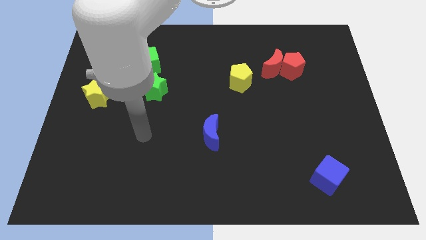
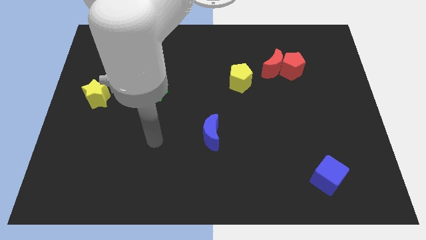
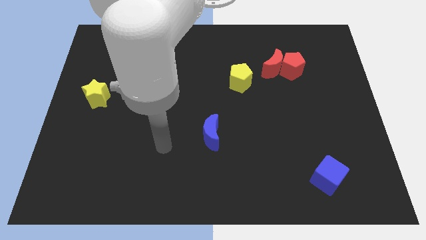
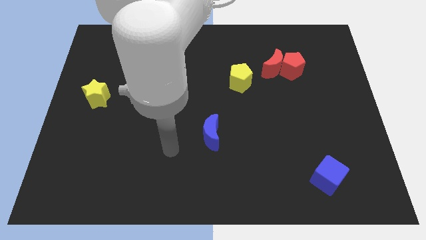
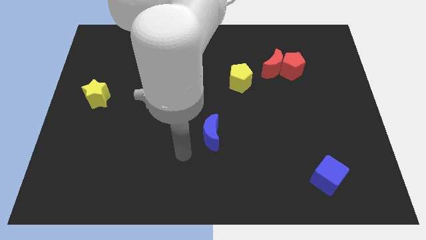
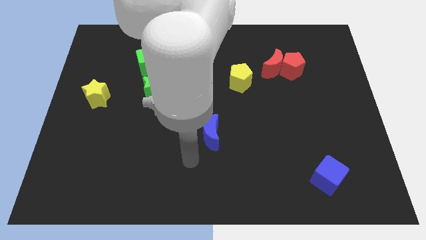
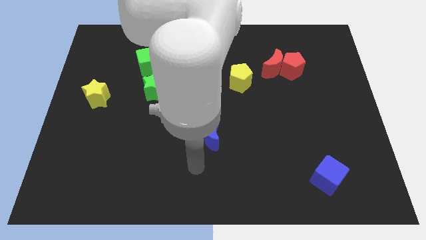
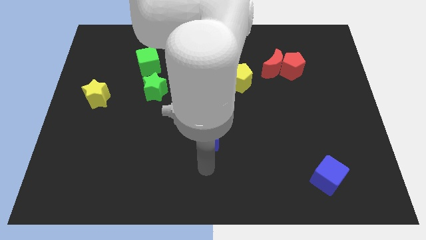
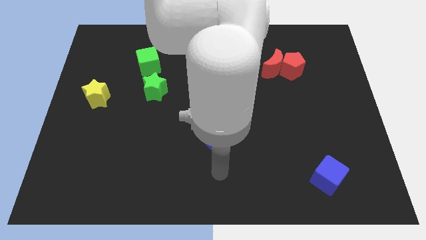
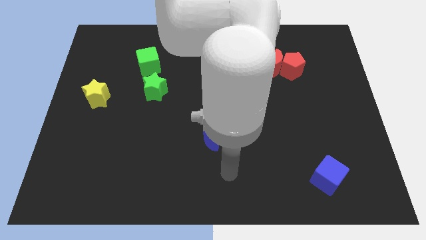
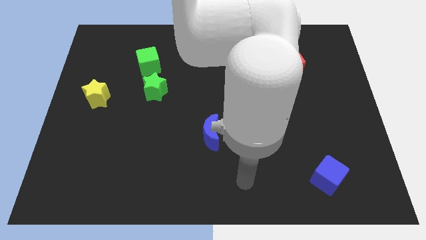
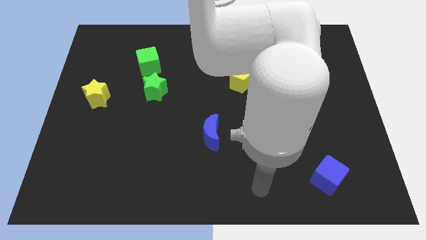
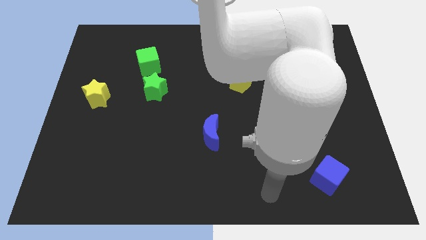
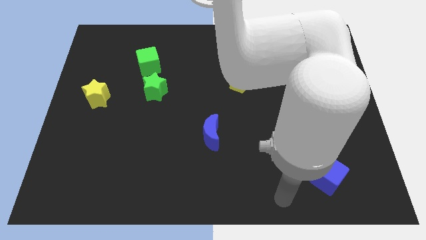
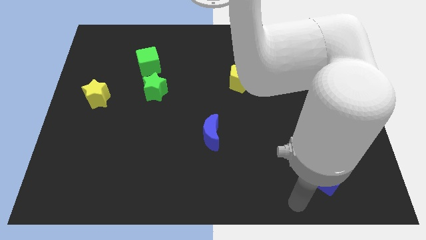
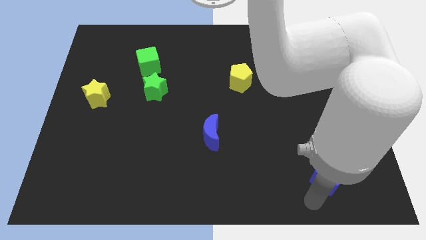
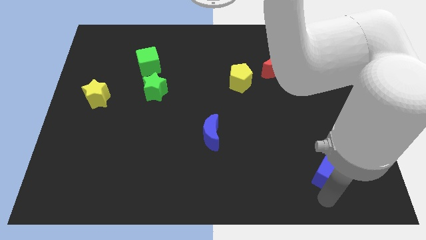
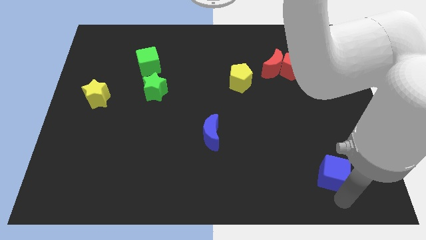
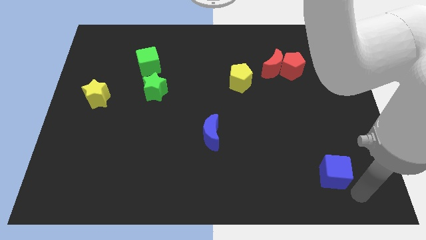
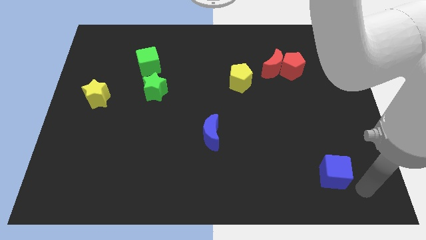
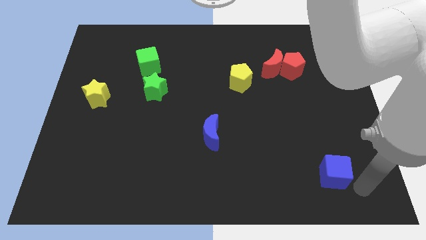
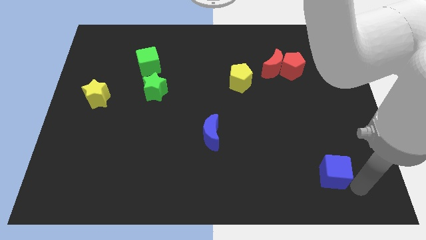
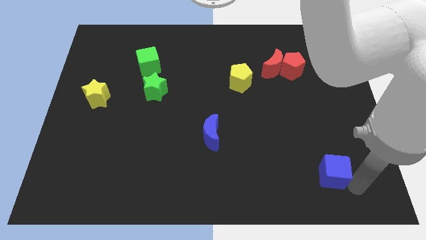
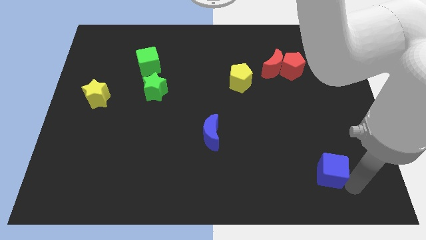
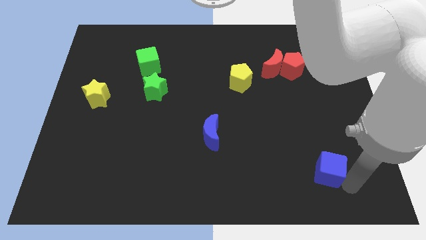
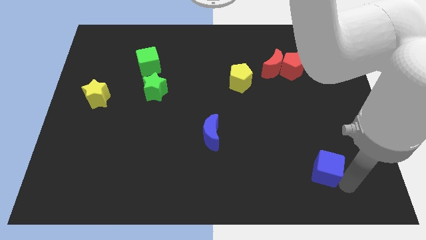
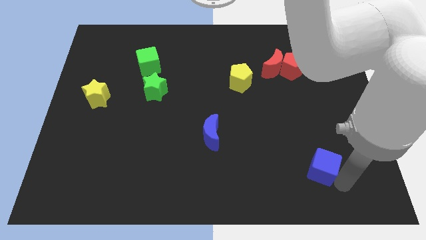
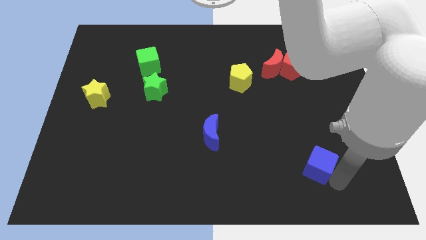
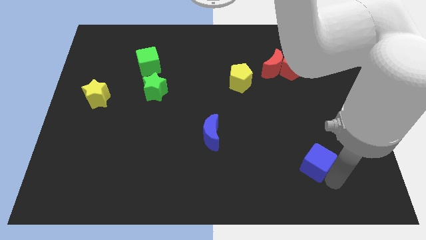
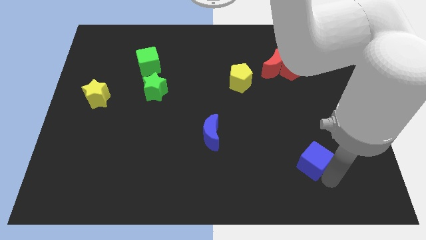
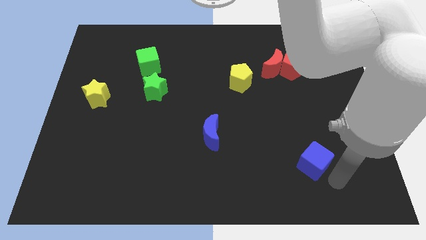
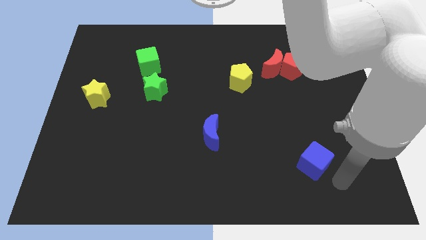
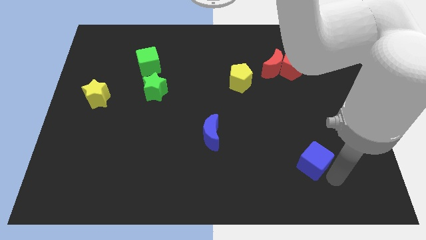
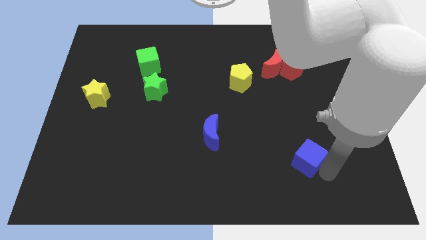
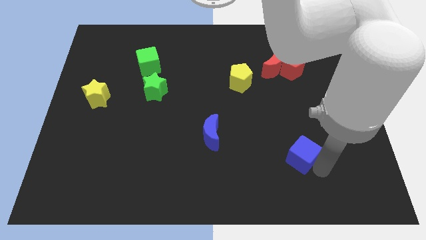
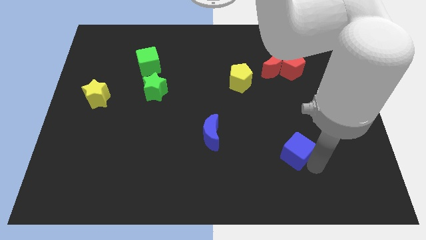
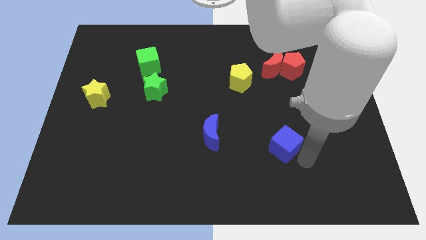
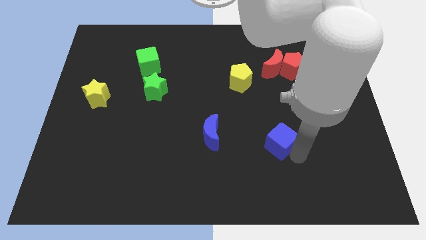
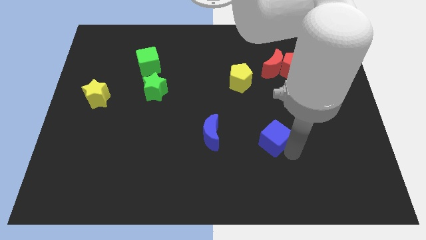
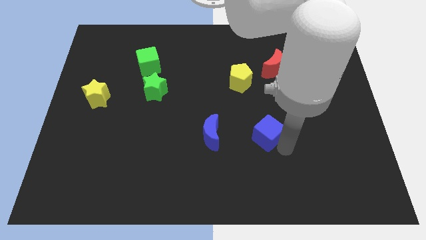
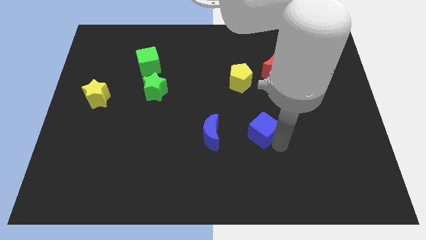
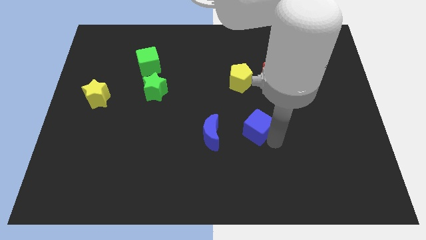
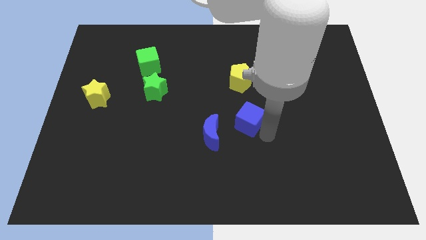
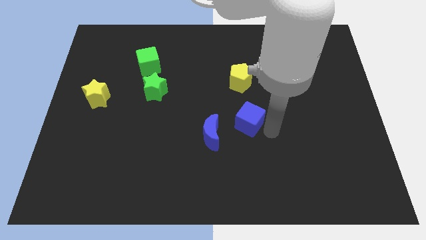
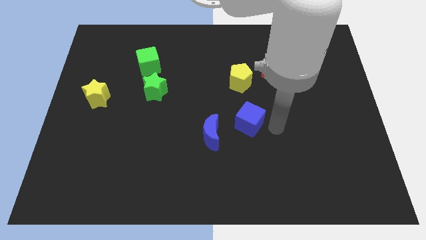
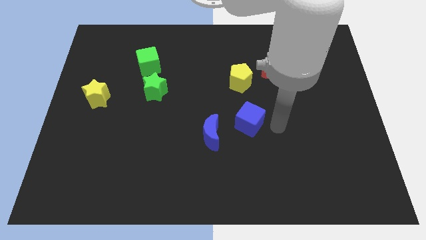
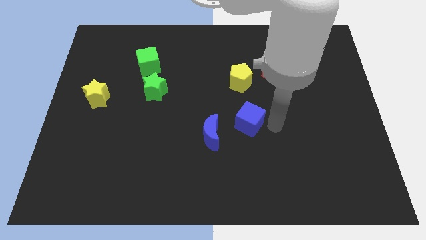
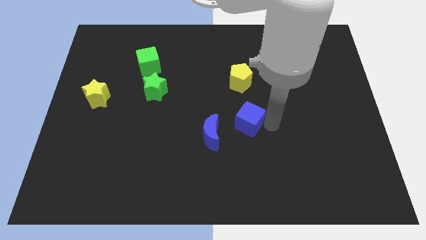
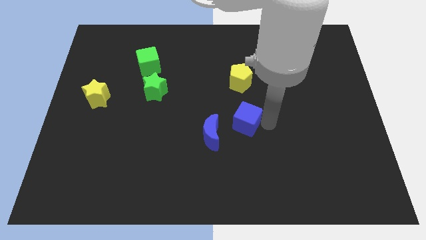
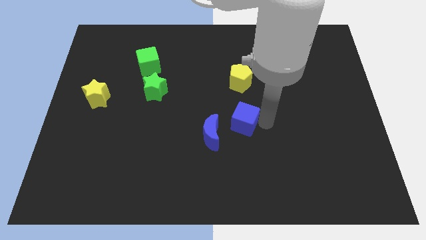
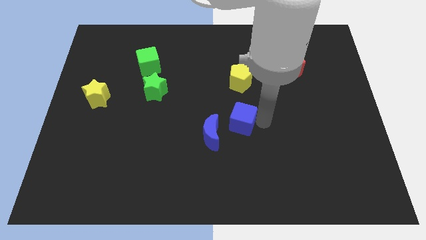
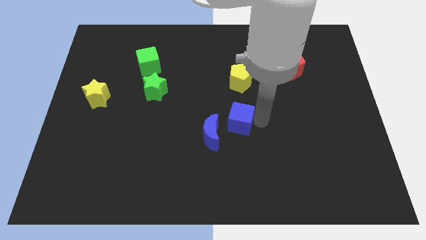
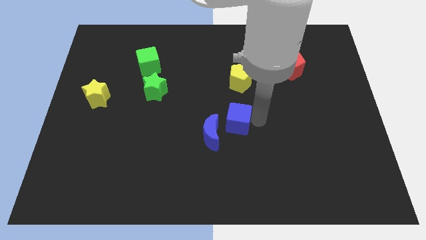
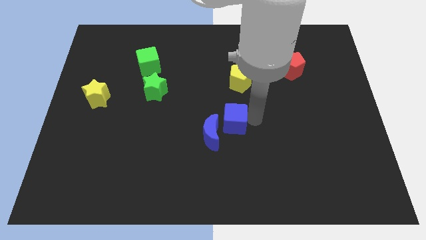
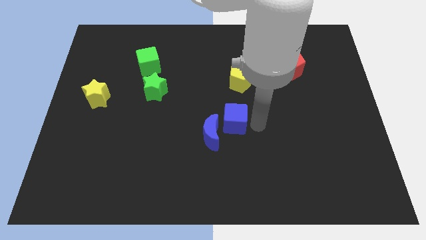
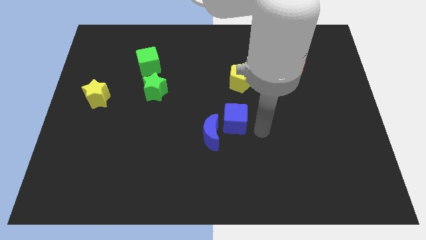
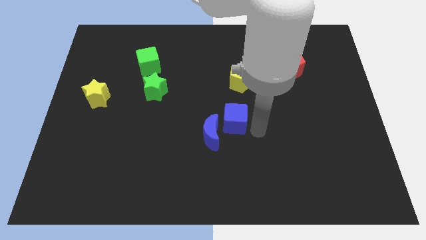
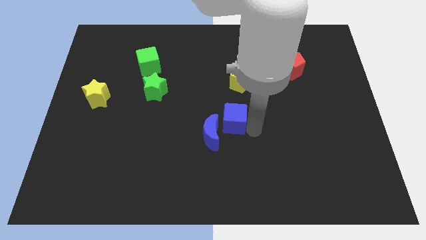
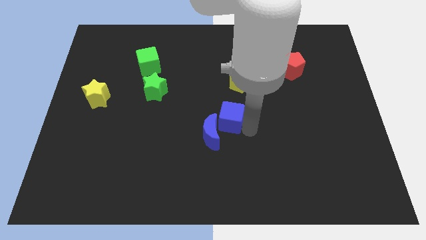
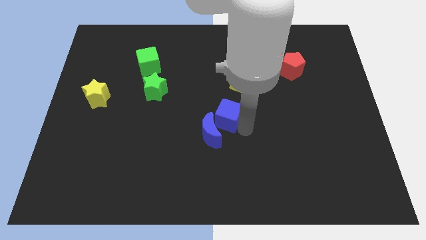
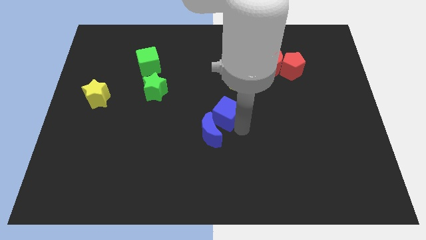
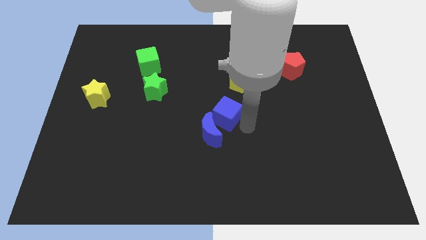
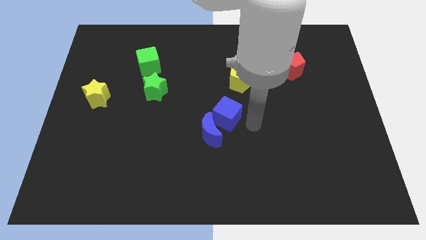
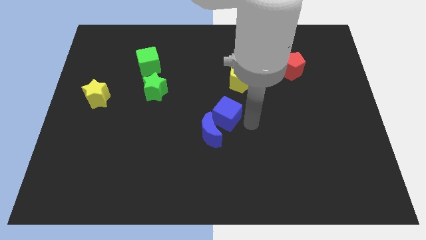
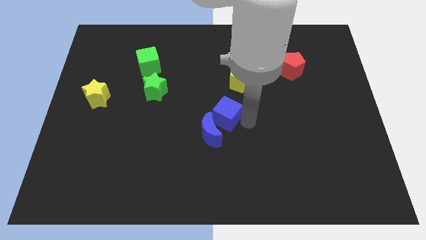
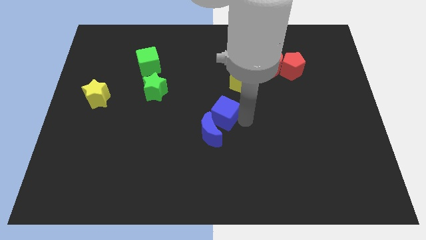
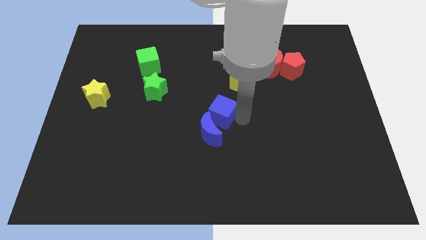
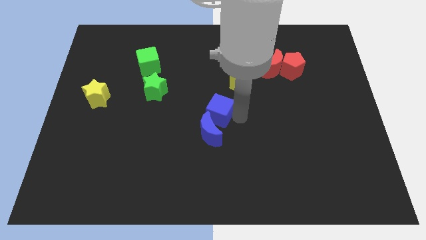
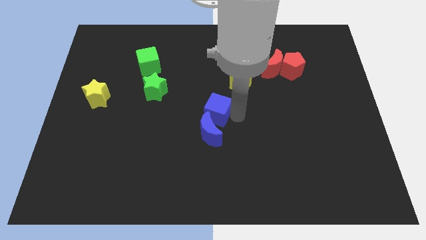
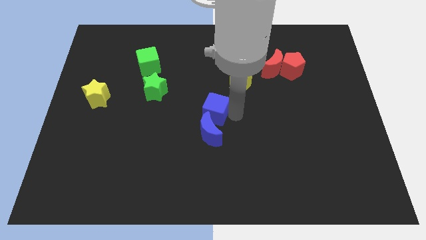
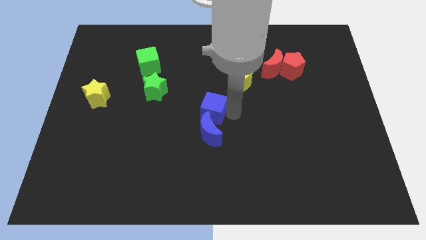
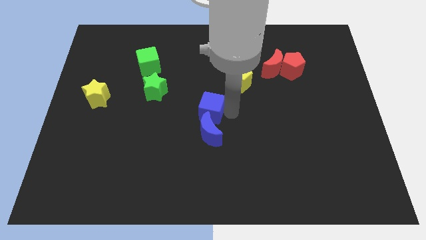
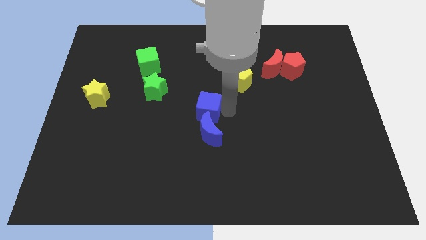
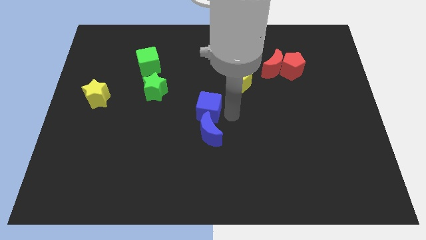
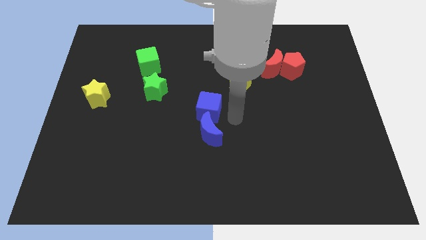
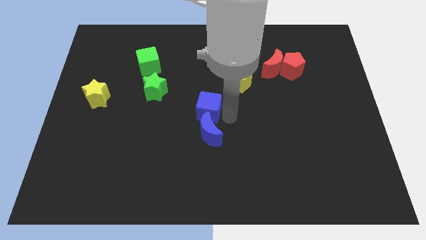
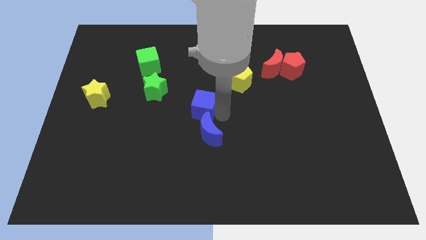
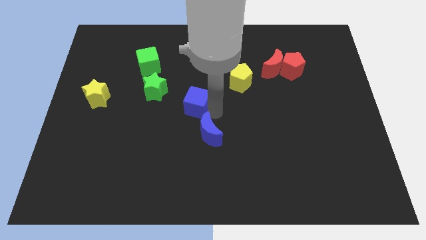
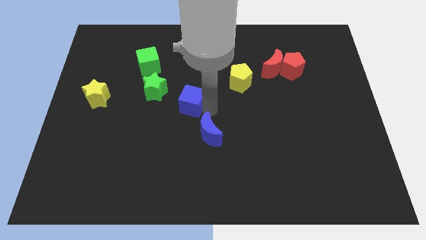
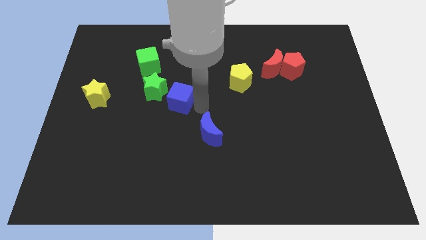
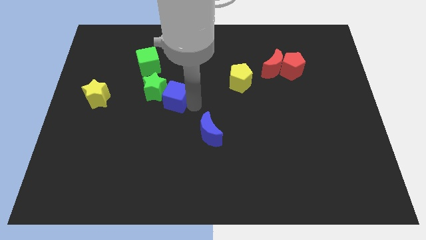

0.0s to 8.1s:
put the blue cube to the green star
